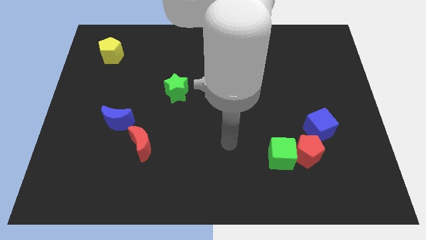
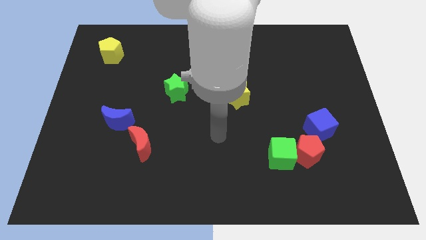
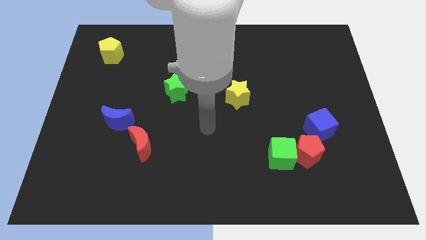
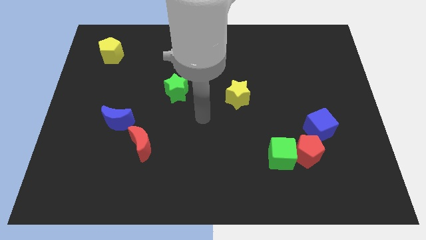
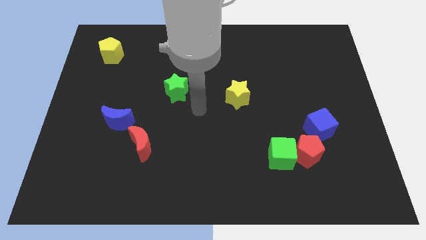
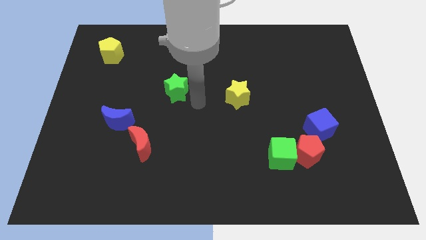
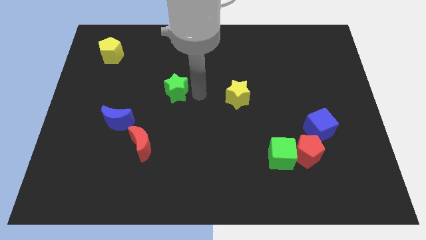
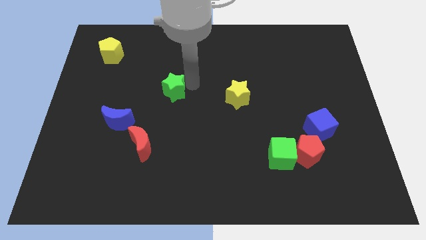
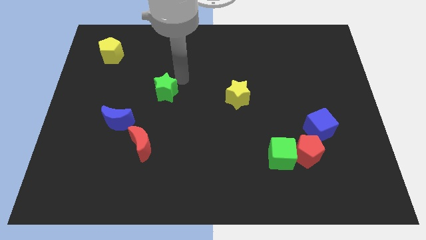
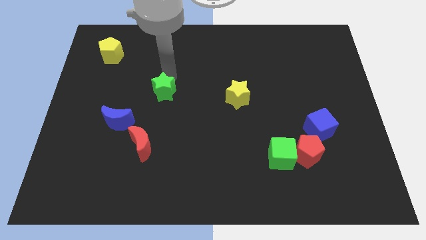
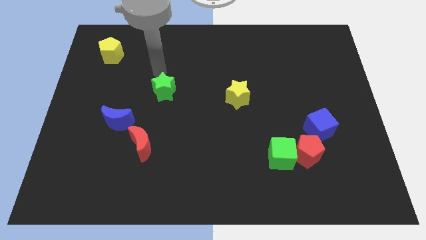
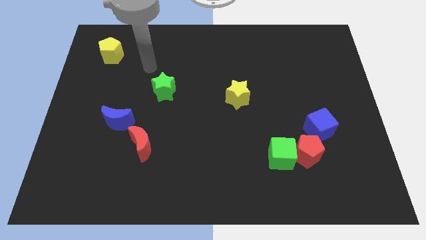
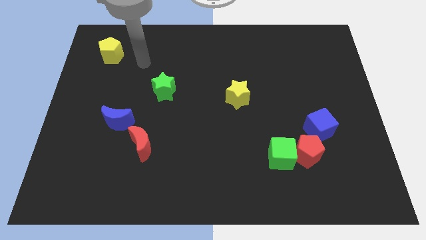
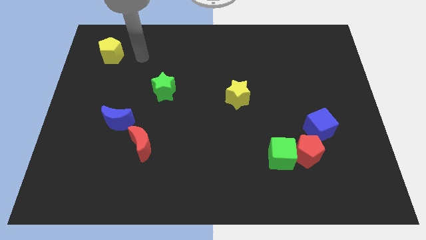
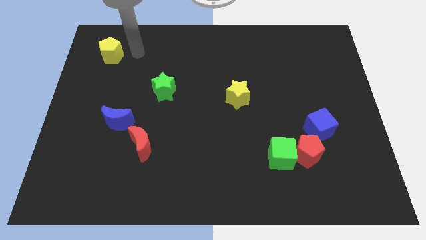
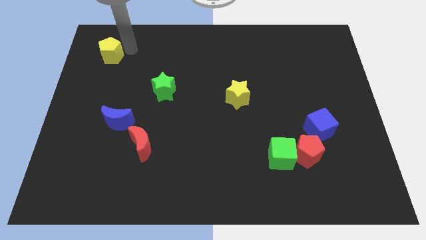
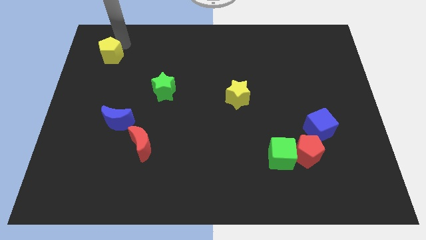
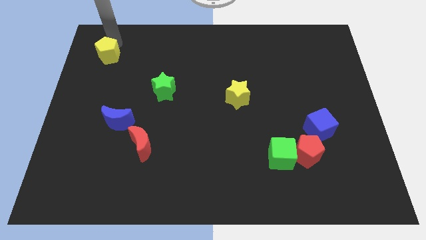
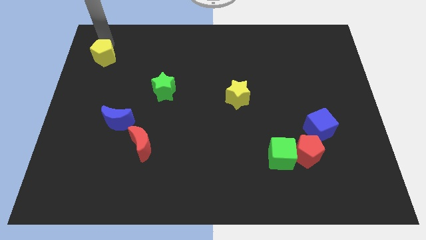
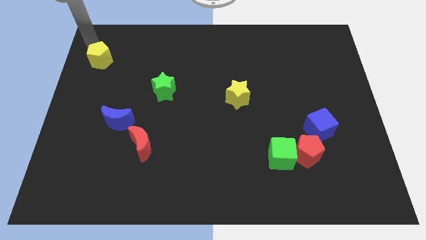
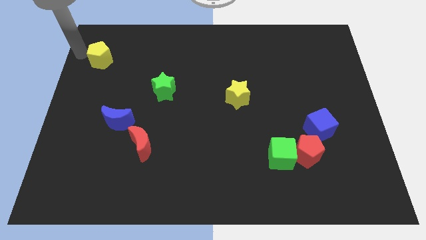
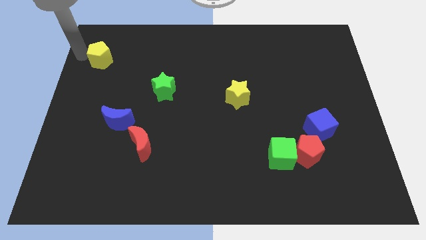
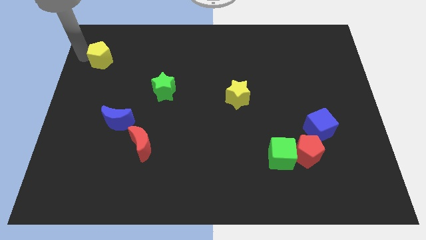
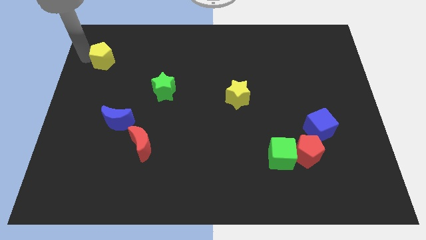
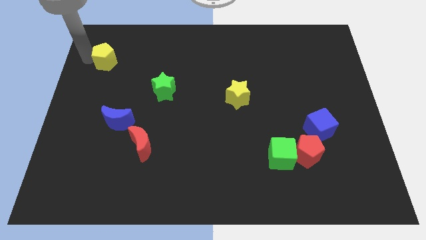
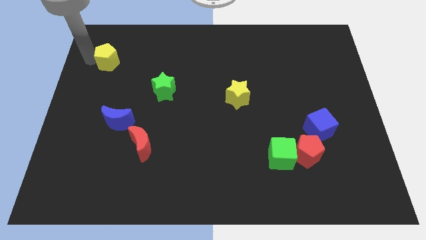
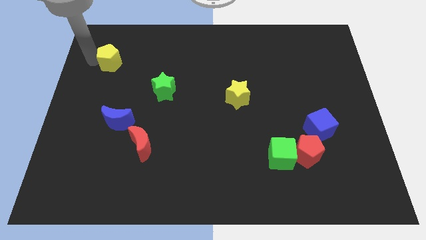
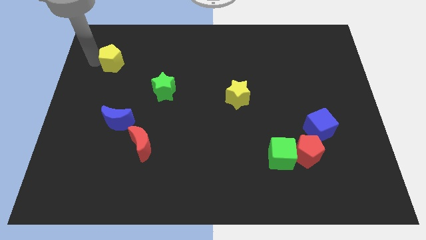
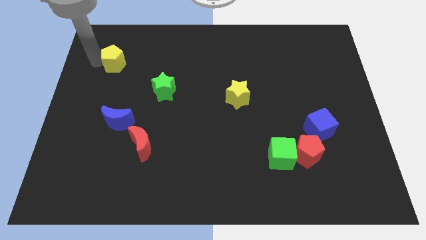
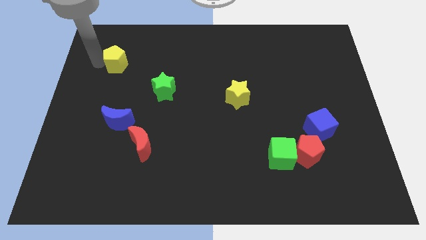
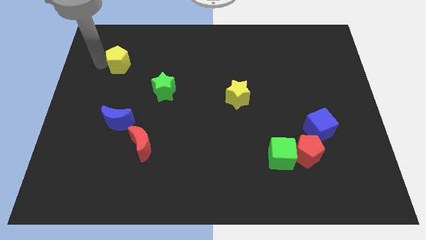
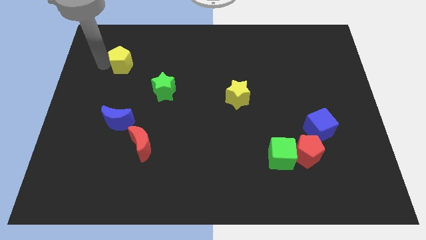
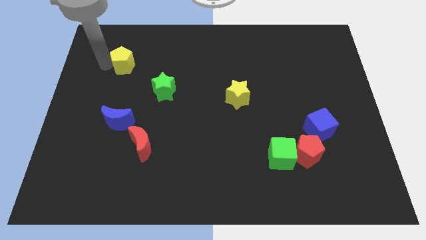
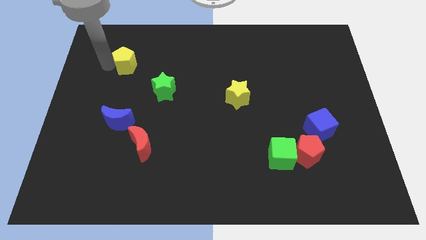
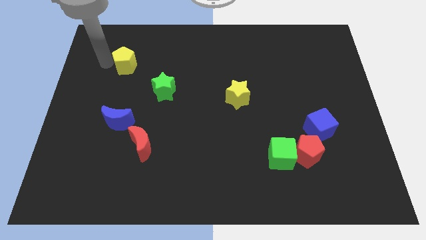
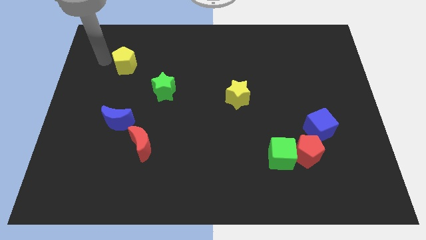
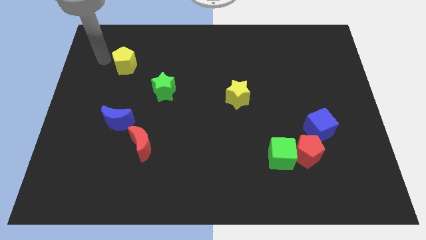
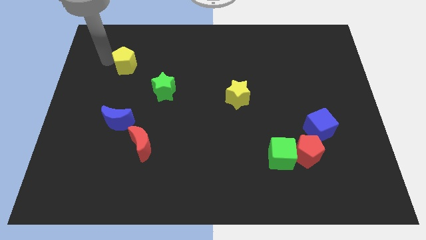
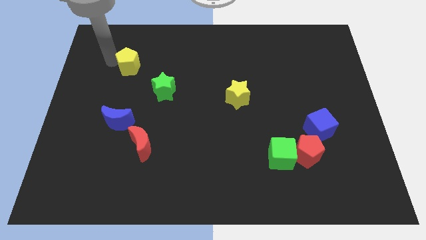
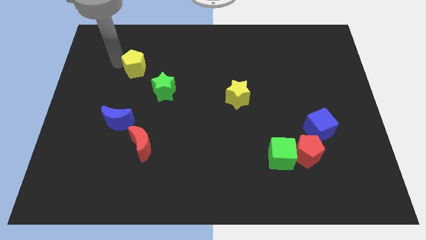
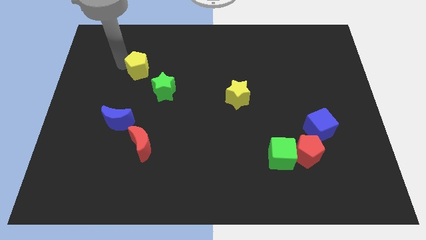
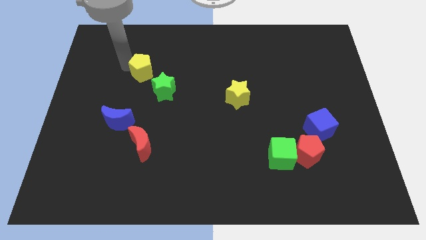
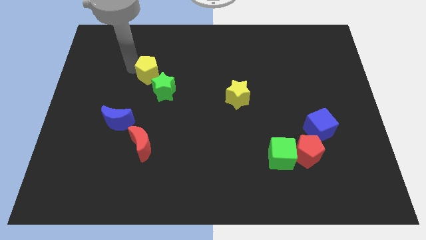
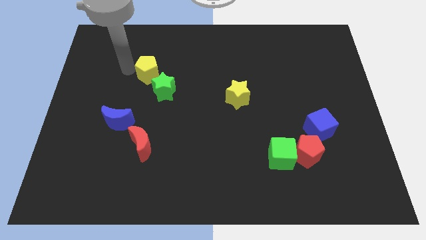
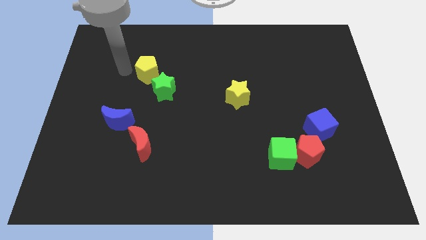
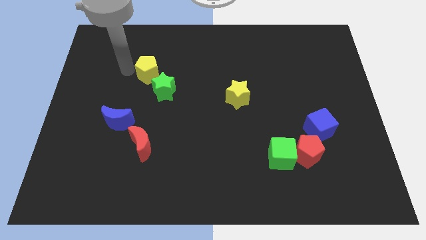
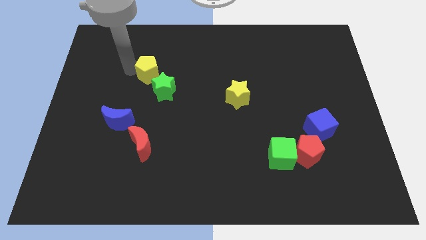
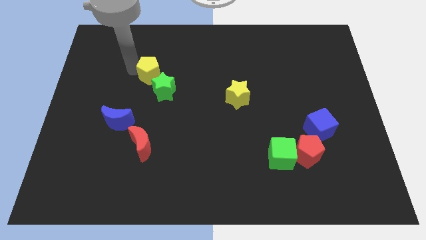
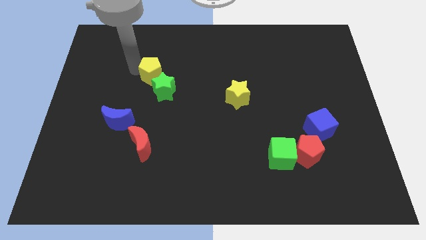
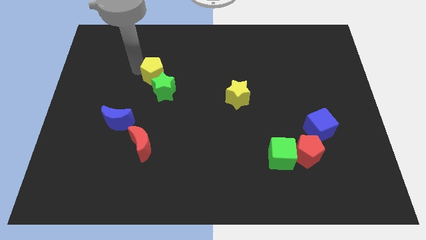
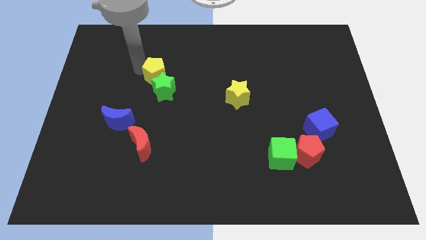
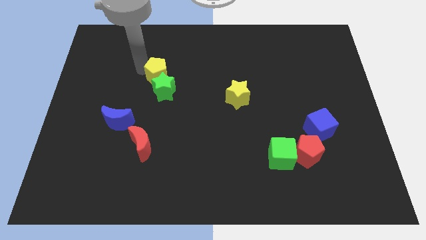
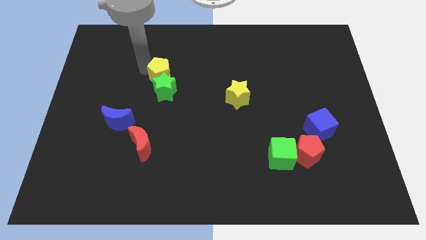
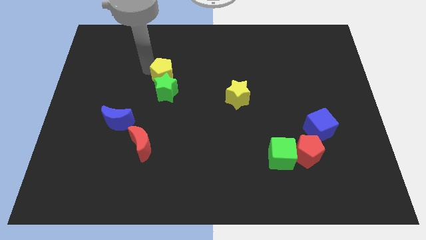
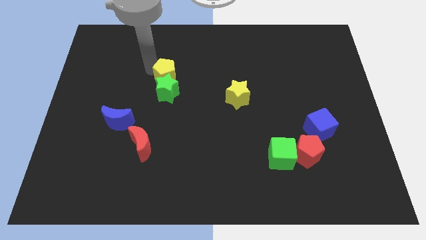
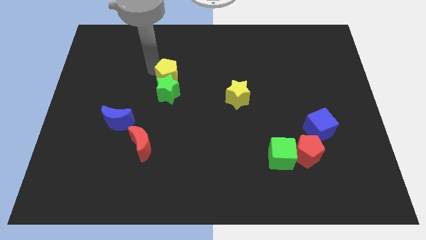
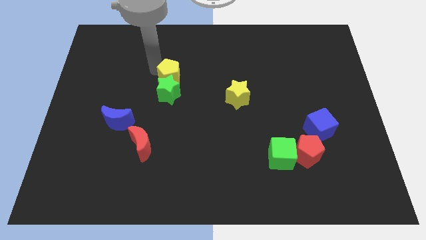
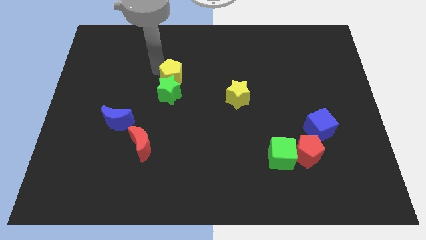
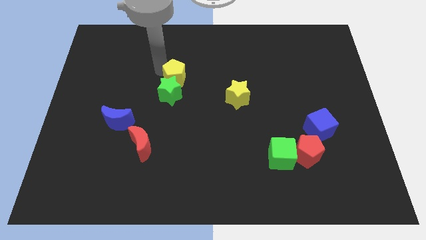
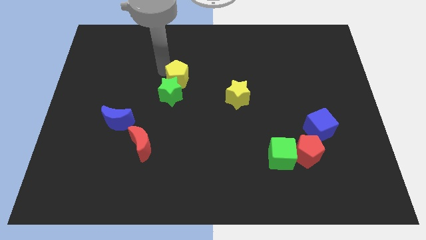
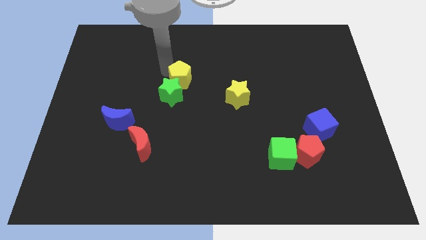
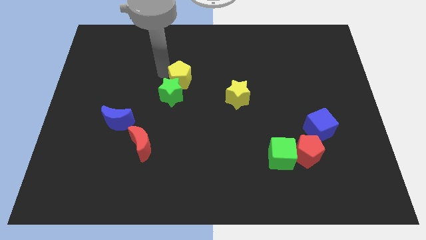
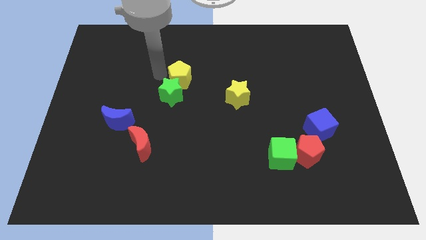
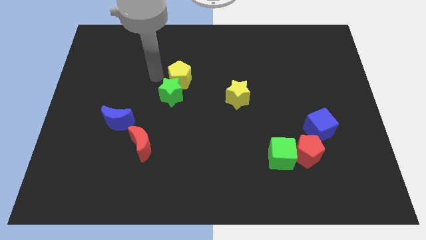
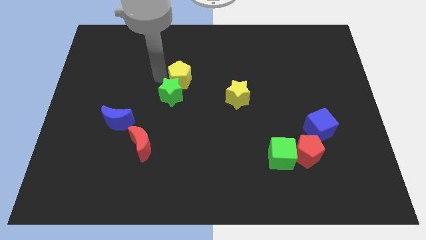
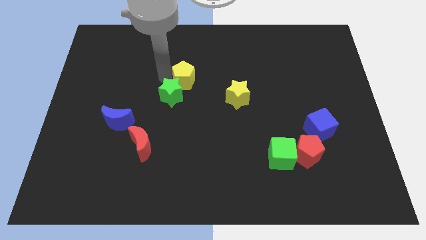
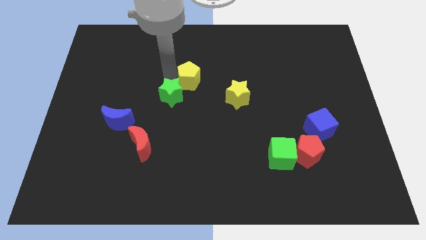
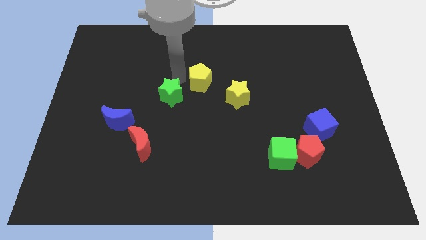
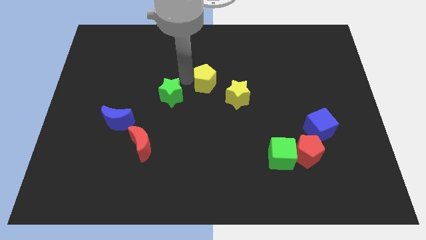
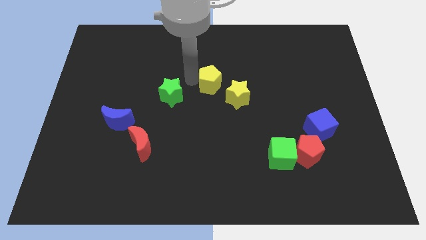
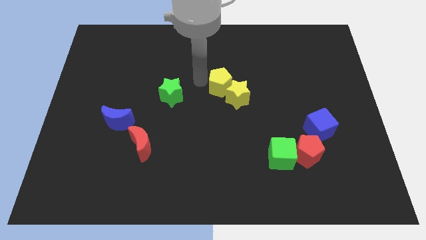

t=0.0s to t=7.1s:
slide the yellow pentagon towards the yellow star
